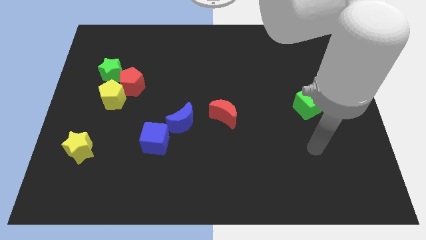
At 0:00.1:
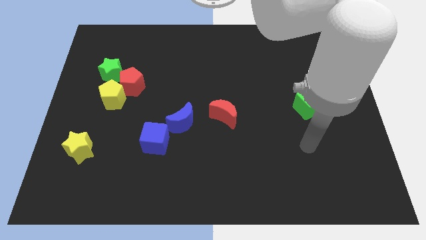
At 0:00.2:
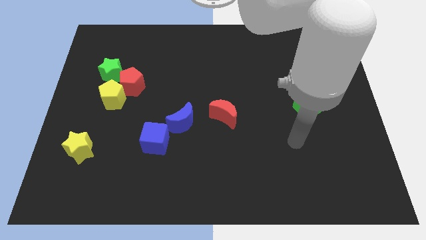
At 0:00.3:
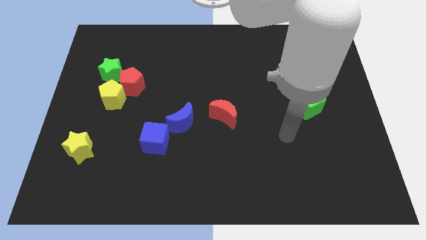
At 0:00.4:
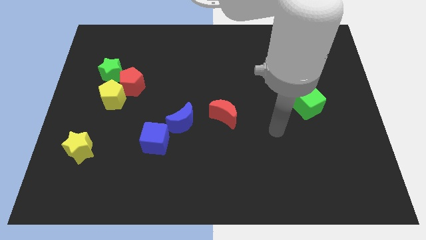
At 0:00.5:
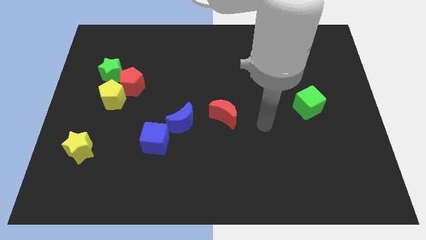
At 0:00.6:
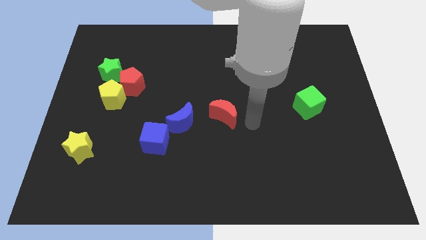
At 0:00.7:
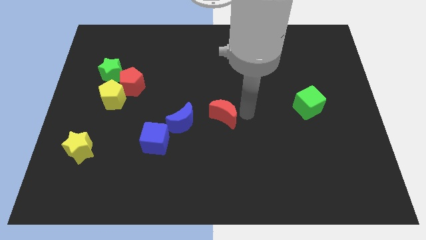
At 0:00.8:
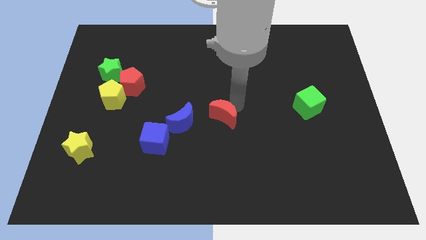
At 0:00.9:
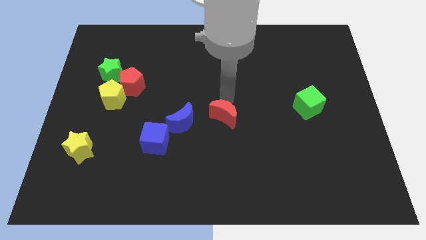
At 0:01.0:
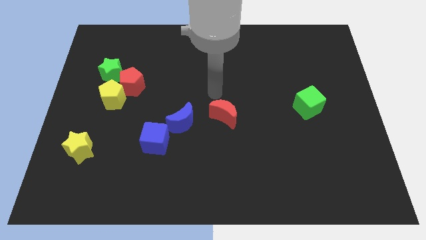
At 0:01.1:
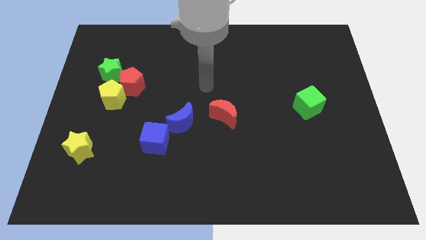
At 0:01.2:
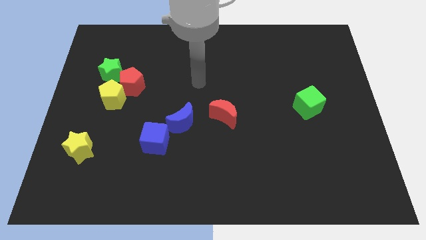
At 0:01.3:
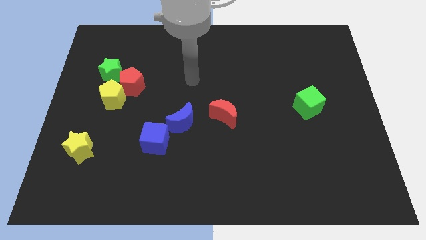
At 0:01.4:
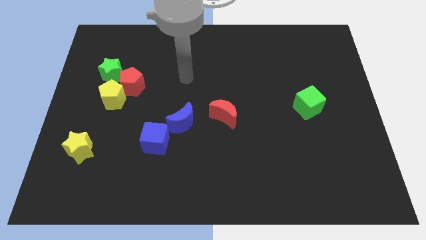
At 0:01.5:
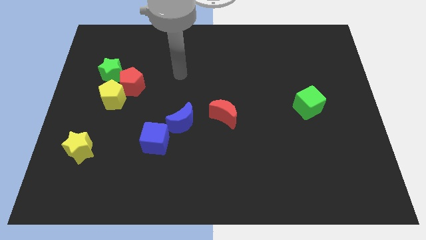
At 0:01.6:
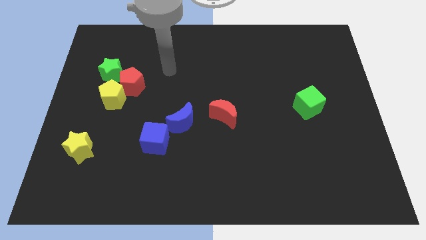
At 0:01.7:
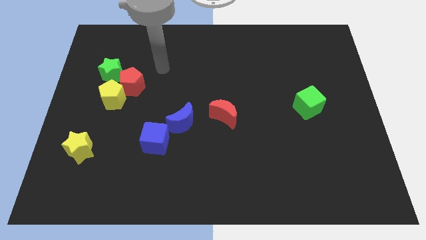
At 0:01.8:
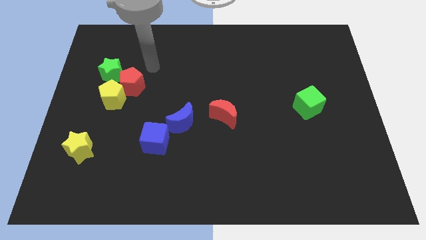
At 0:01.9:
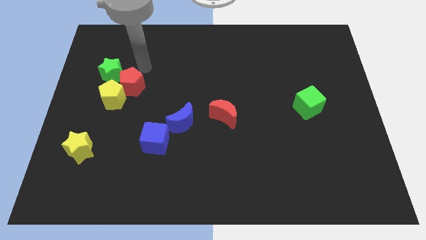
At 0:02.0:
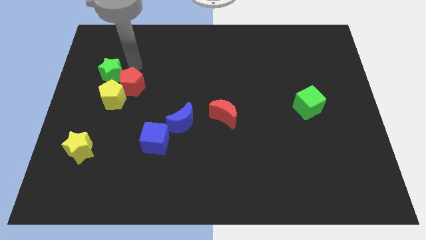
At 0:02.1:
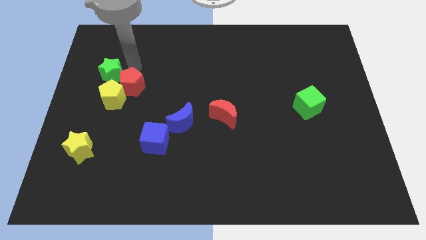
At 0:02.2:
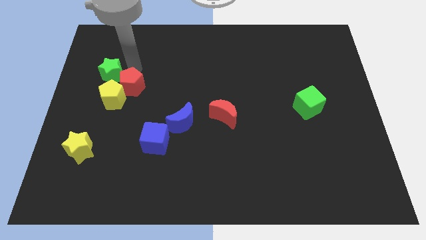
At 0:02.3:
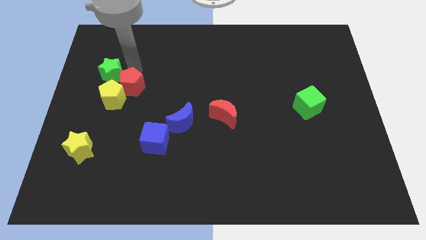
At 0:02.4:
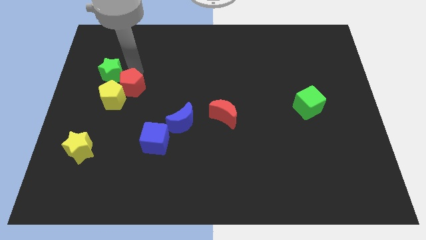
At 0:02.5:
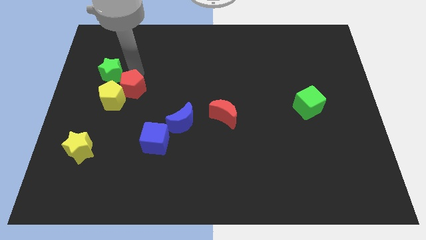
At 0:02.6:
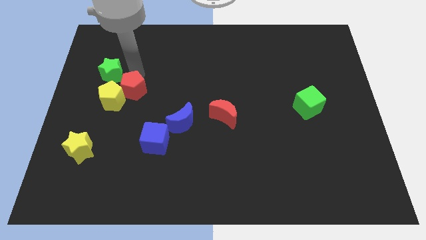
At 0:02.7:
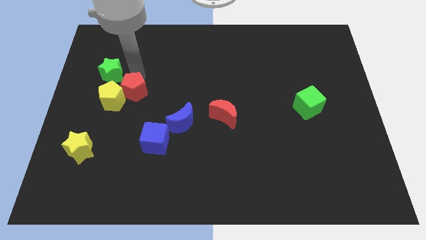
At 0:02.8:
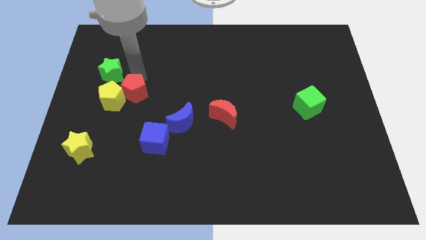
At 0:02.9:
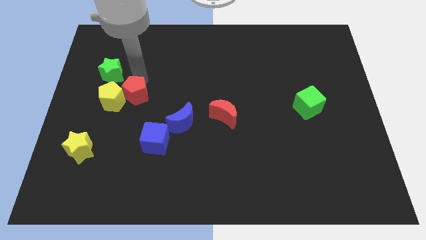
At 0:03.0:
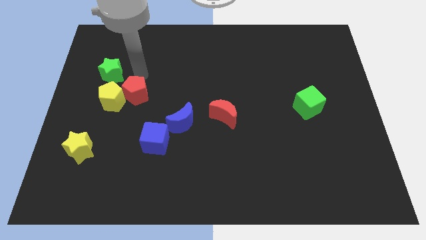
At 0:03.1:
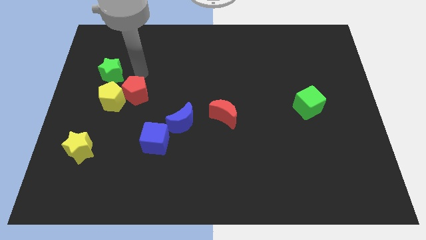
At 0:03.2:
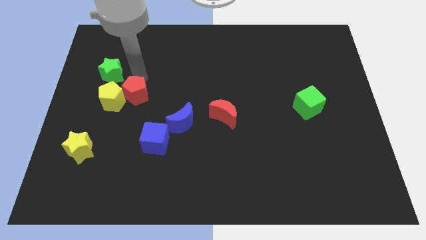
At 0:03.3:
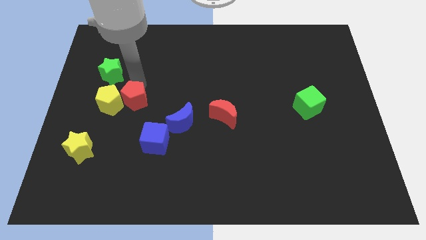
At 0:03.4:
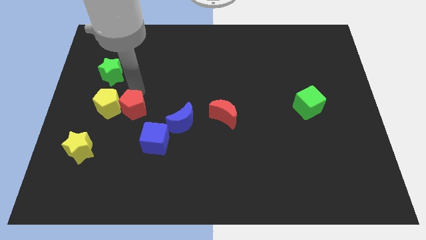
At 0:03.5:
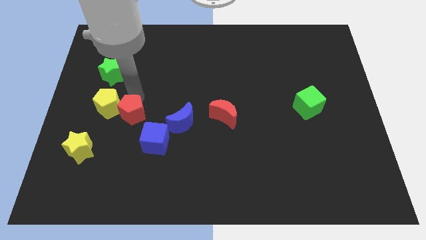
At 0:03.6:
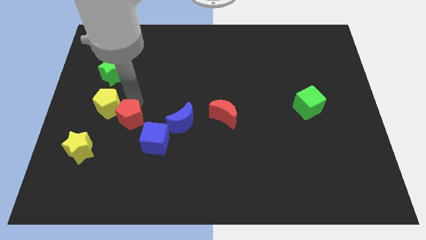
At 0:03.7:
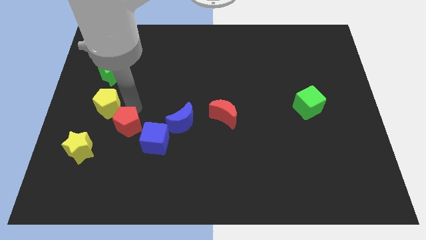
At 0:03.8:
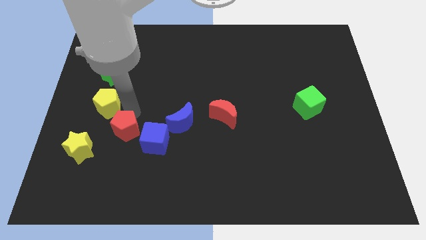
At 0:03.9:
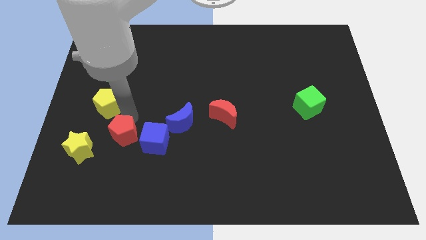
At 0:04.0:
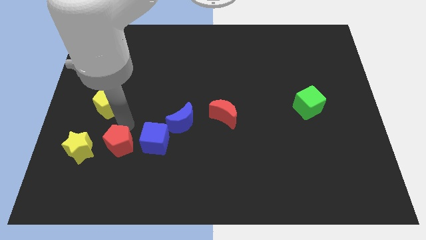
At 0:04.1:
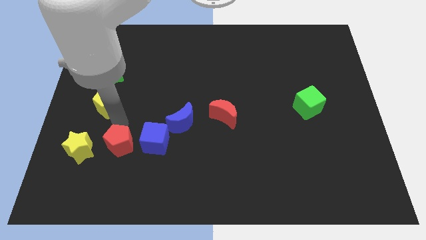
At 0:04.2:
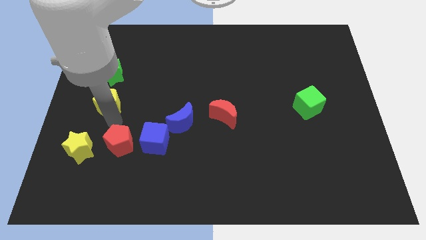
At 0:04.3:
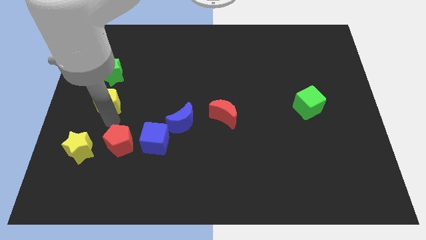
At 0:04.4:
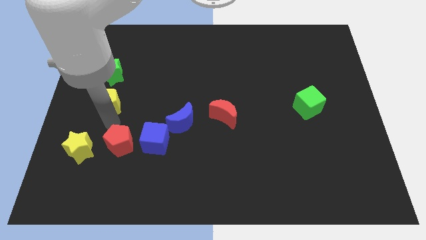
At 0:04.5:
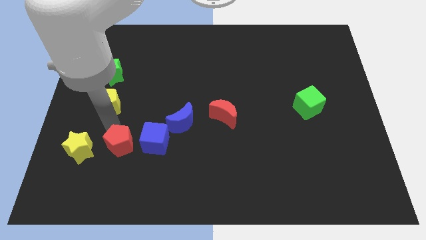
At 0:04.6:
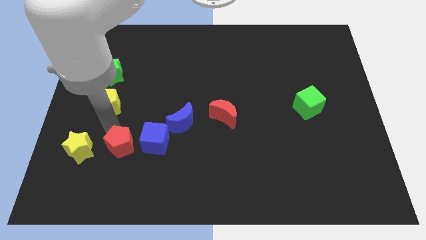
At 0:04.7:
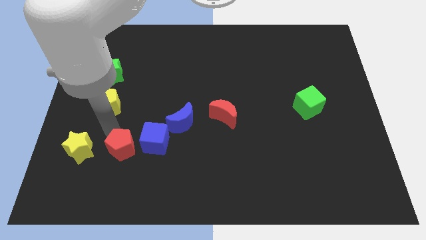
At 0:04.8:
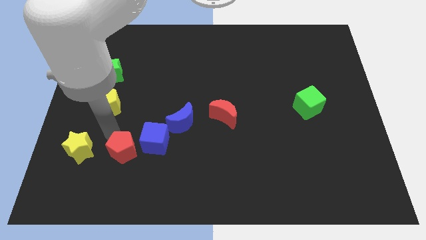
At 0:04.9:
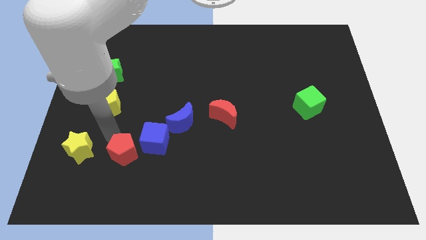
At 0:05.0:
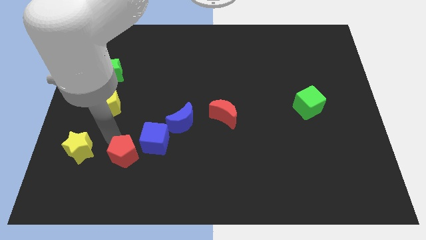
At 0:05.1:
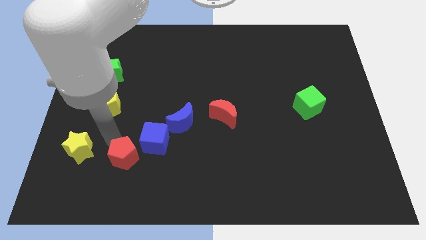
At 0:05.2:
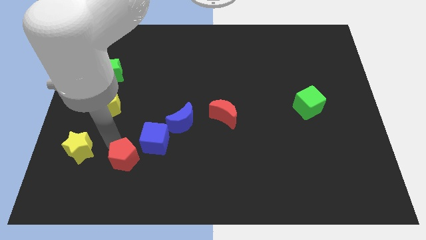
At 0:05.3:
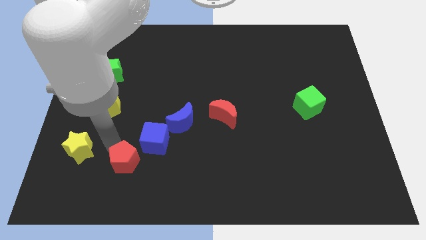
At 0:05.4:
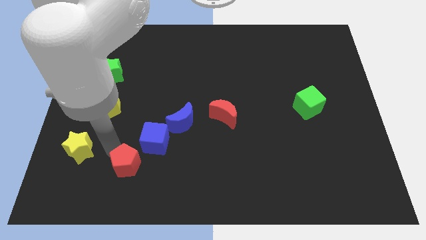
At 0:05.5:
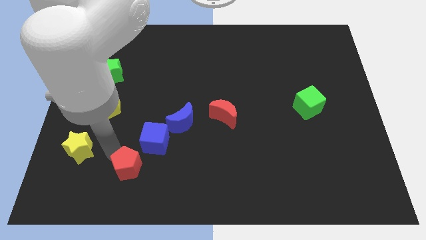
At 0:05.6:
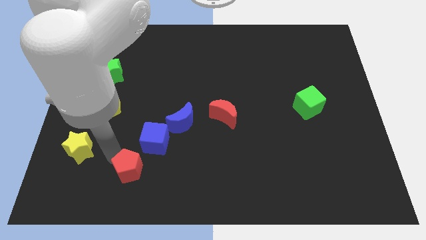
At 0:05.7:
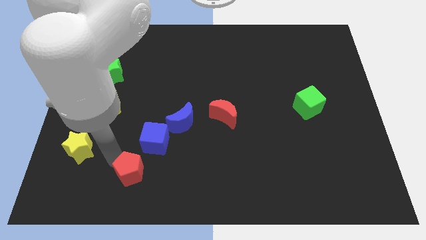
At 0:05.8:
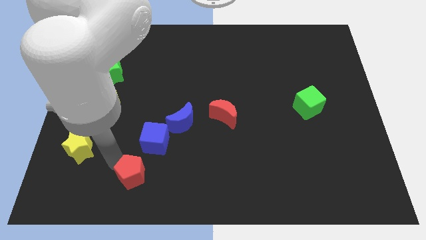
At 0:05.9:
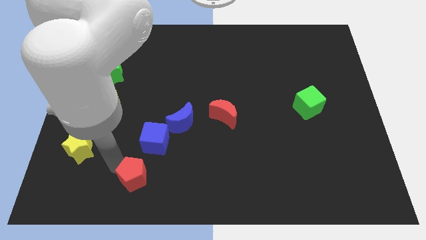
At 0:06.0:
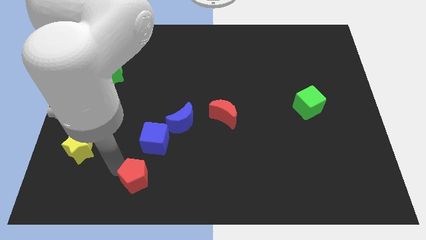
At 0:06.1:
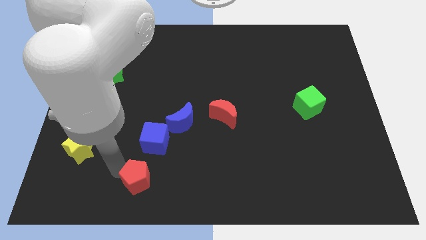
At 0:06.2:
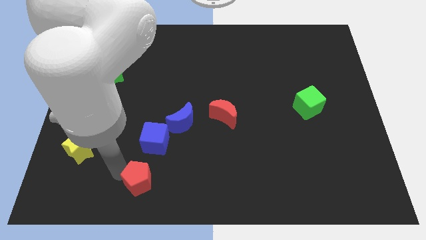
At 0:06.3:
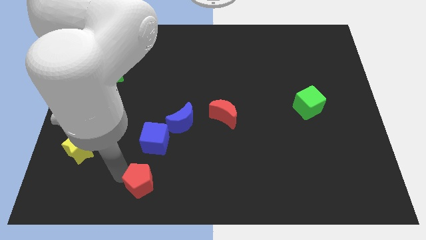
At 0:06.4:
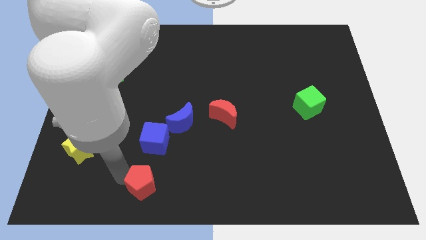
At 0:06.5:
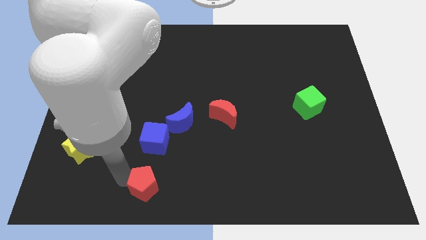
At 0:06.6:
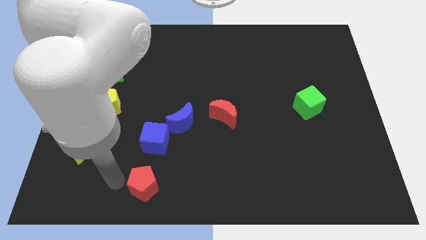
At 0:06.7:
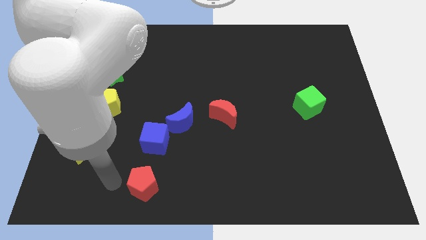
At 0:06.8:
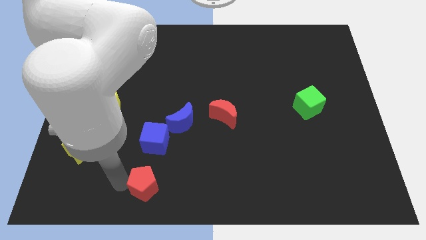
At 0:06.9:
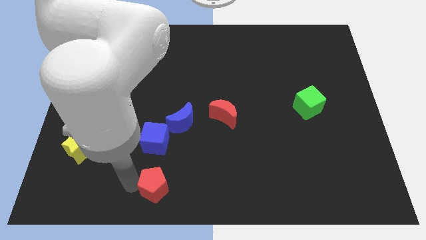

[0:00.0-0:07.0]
push the red pentagon to the bottom side
